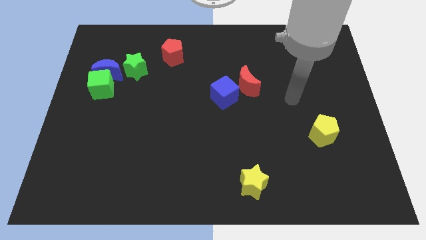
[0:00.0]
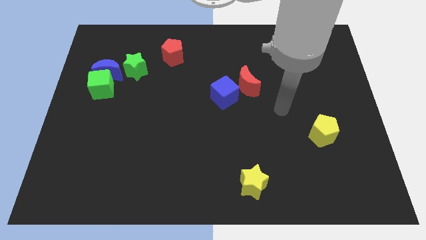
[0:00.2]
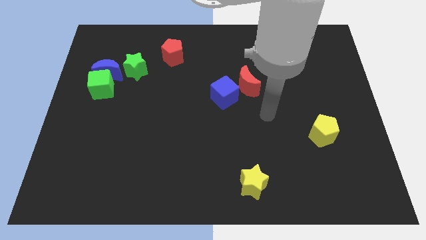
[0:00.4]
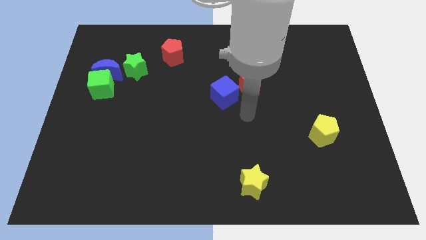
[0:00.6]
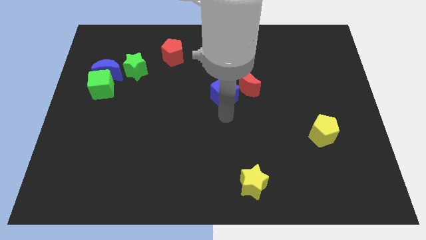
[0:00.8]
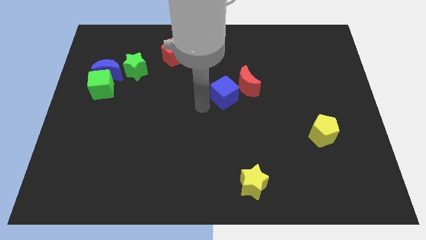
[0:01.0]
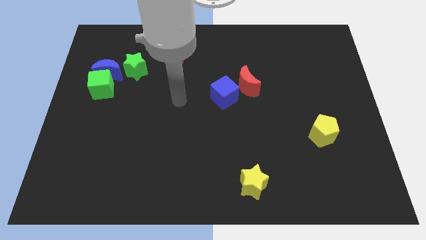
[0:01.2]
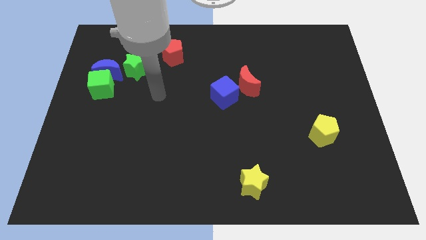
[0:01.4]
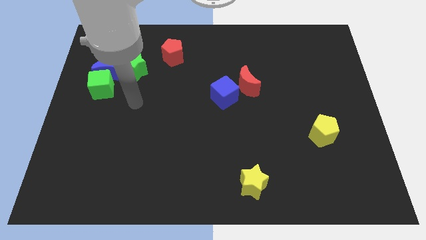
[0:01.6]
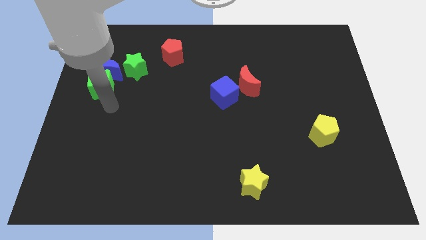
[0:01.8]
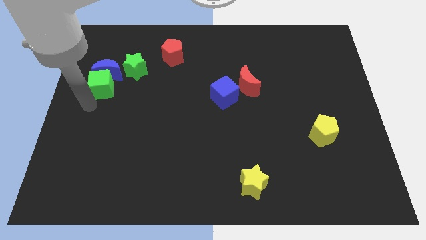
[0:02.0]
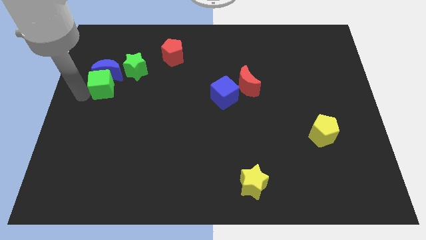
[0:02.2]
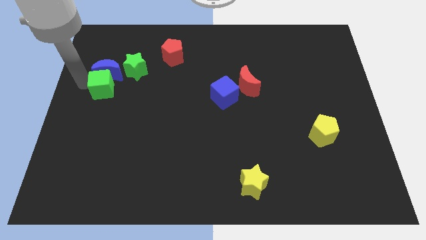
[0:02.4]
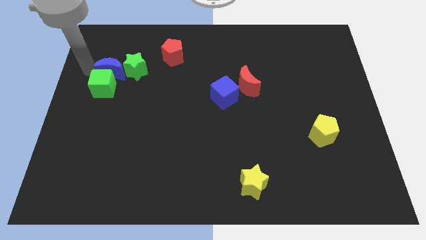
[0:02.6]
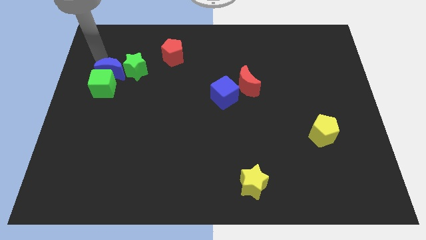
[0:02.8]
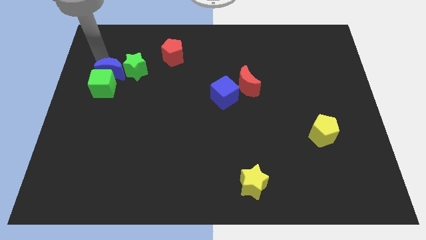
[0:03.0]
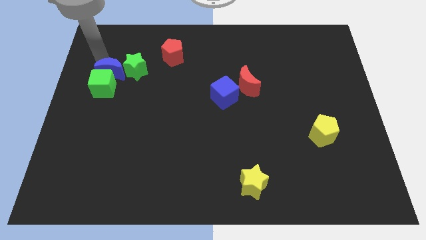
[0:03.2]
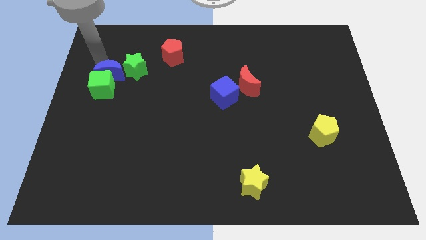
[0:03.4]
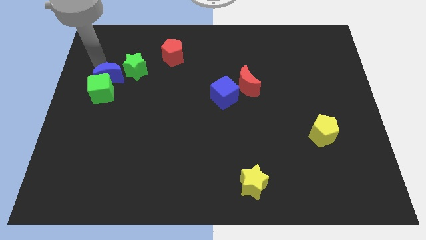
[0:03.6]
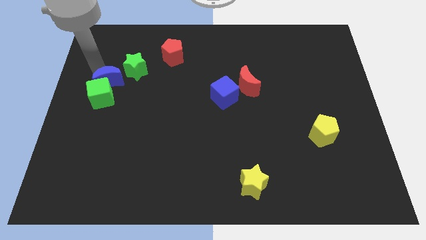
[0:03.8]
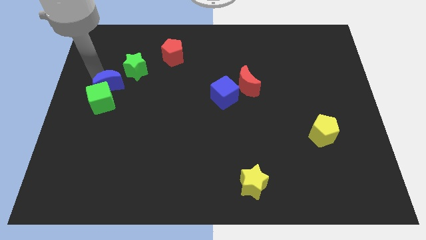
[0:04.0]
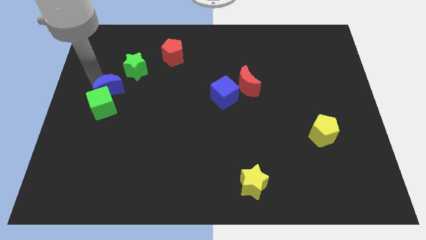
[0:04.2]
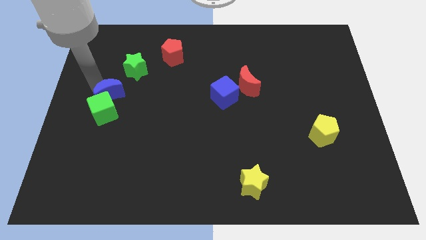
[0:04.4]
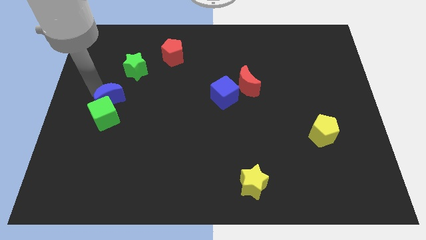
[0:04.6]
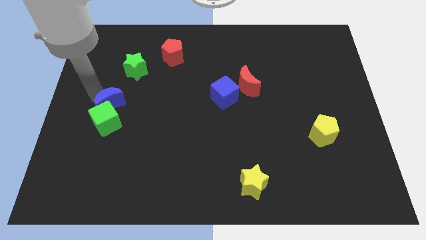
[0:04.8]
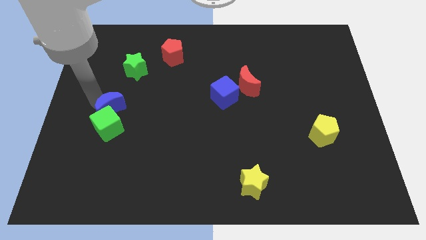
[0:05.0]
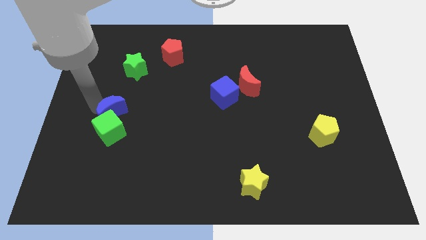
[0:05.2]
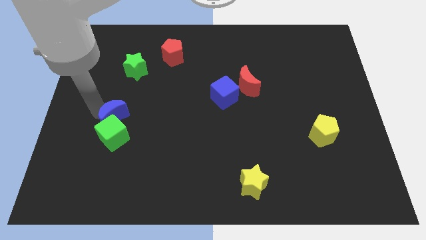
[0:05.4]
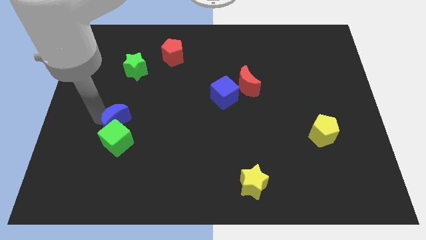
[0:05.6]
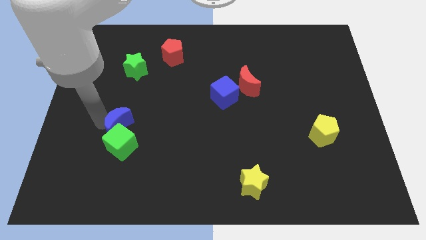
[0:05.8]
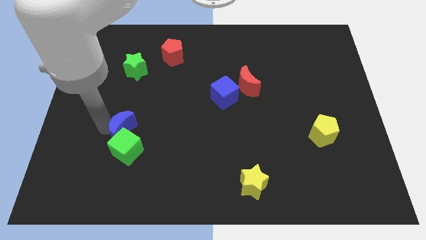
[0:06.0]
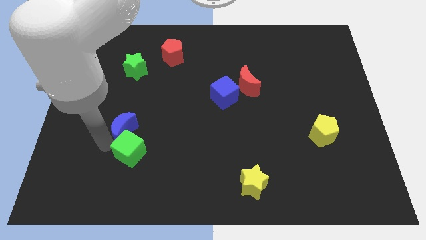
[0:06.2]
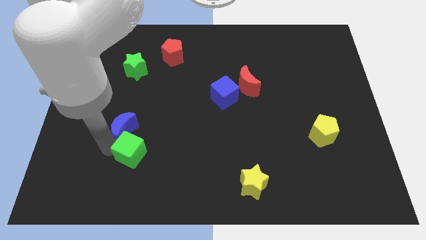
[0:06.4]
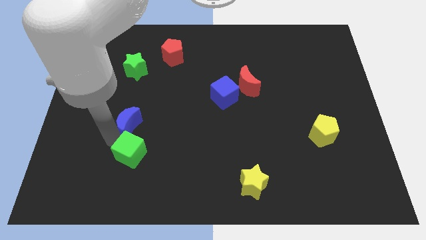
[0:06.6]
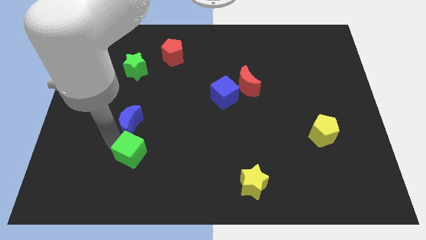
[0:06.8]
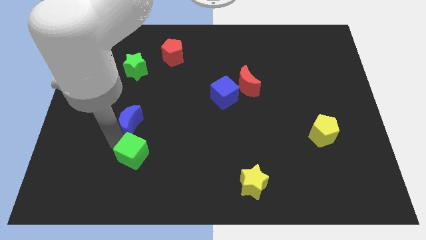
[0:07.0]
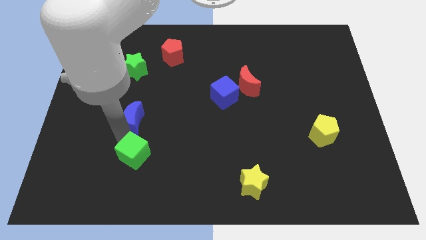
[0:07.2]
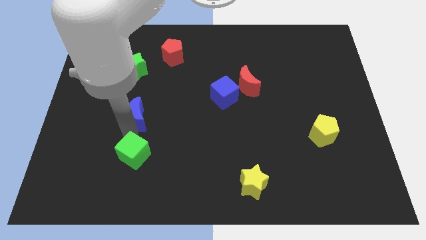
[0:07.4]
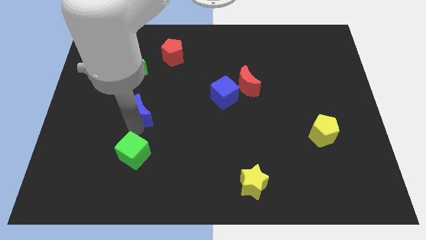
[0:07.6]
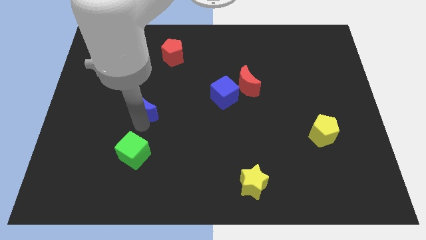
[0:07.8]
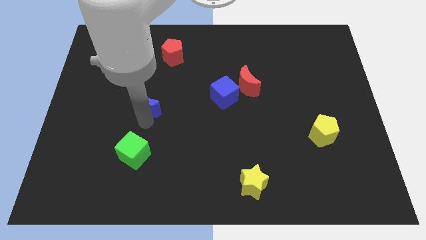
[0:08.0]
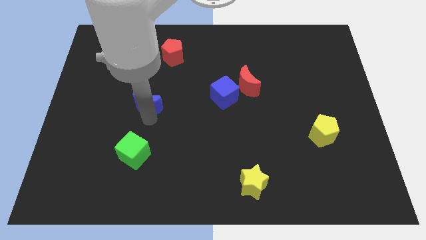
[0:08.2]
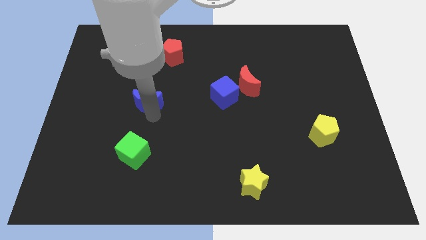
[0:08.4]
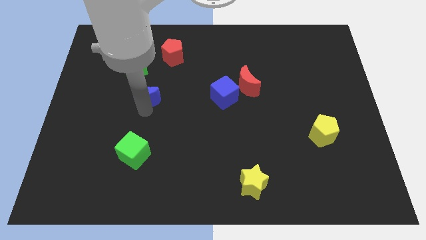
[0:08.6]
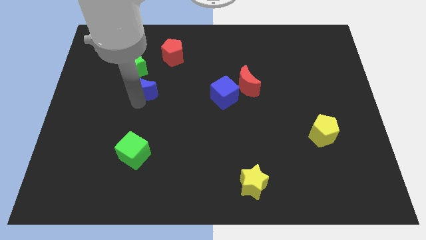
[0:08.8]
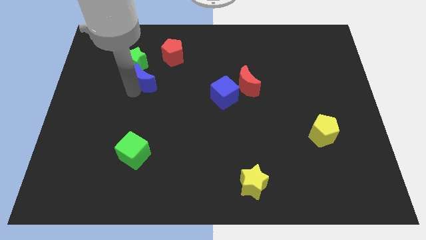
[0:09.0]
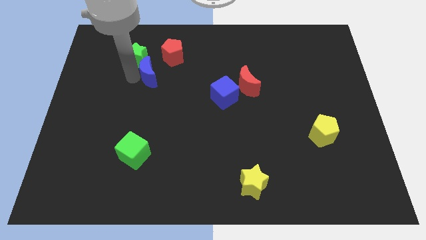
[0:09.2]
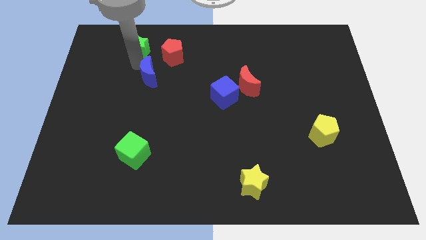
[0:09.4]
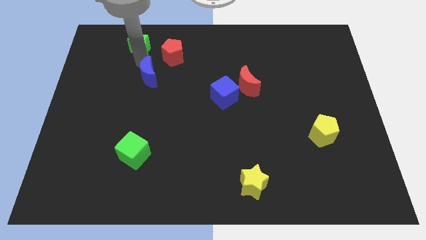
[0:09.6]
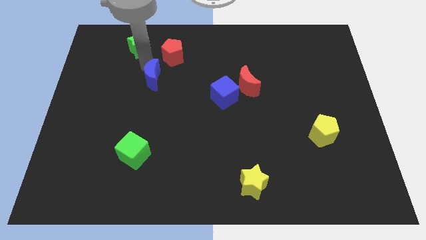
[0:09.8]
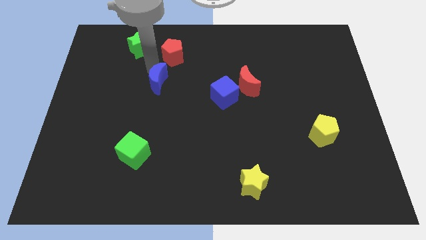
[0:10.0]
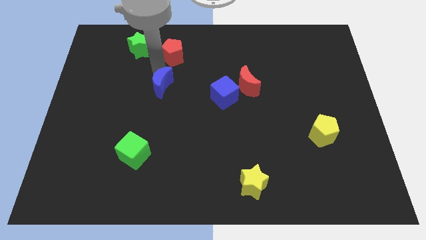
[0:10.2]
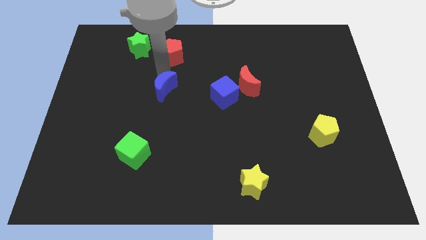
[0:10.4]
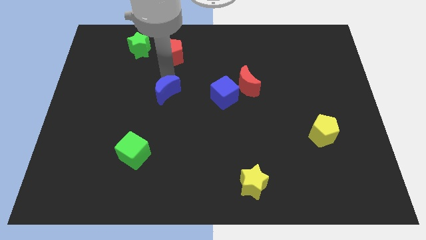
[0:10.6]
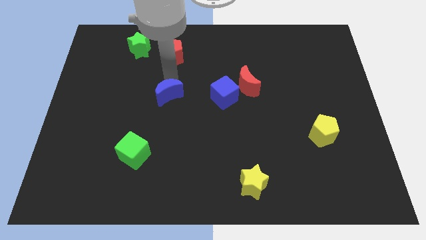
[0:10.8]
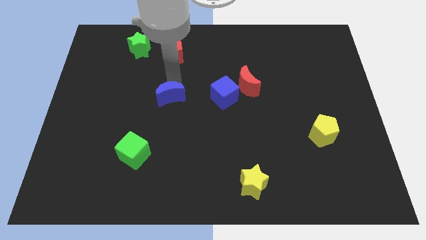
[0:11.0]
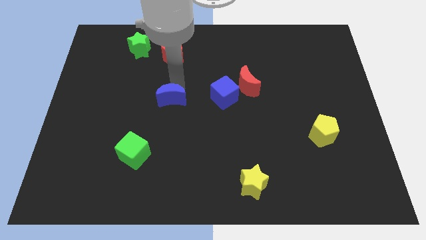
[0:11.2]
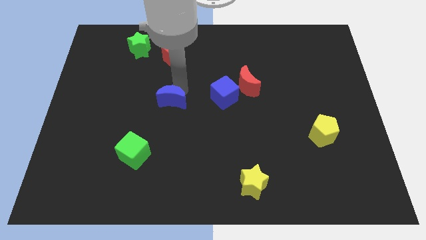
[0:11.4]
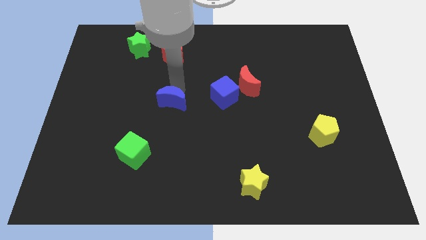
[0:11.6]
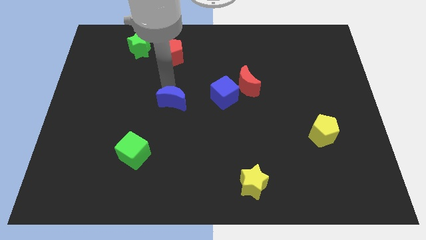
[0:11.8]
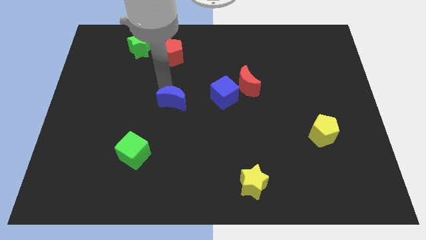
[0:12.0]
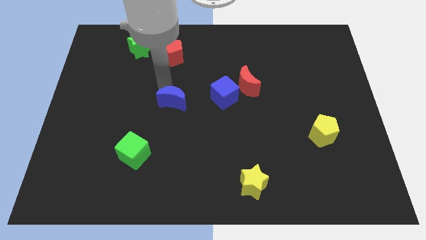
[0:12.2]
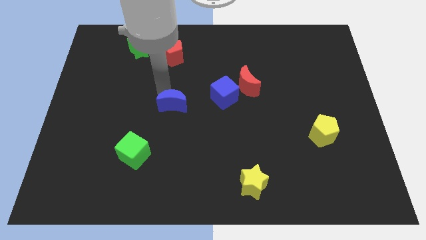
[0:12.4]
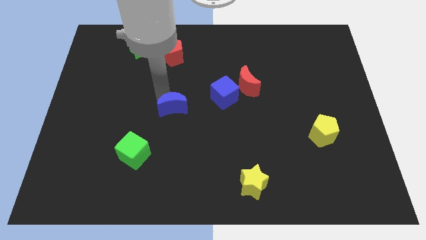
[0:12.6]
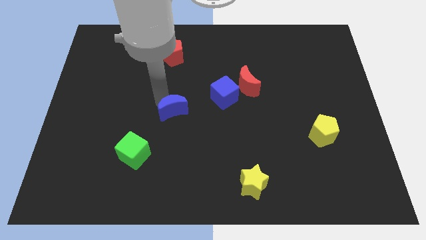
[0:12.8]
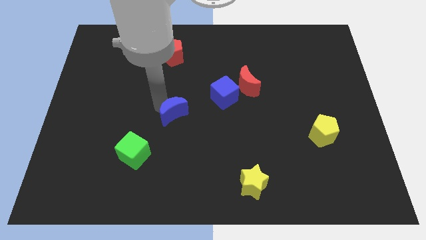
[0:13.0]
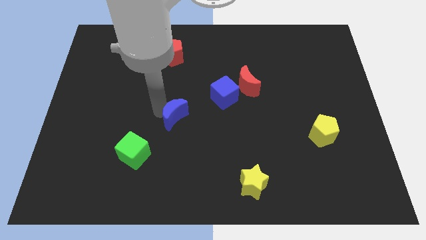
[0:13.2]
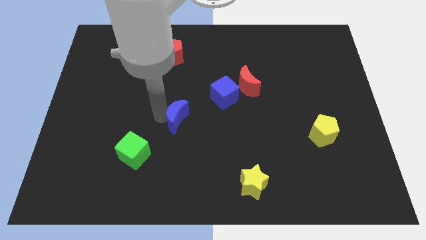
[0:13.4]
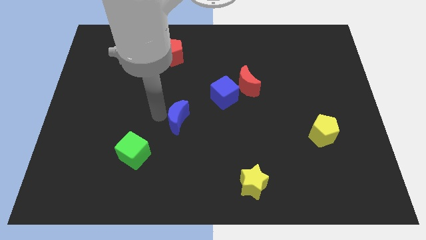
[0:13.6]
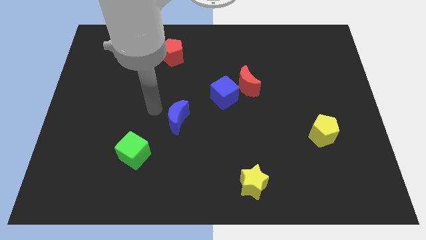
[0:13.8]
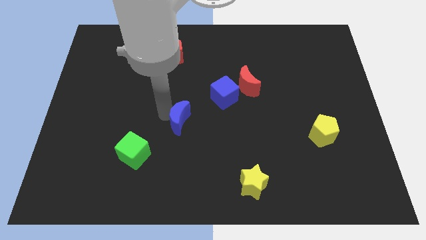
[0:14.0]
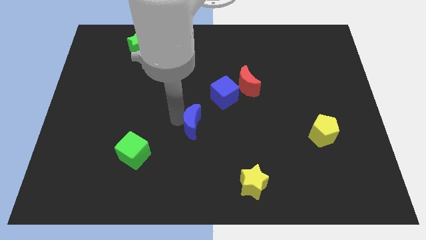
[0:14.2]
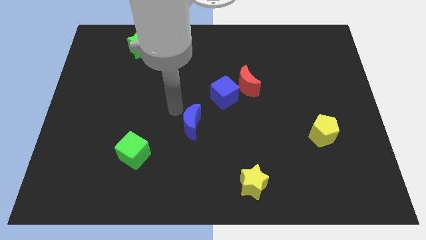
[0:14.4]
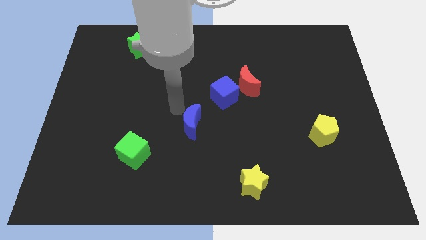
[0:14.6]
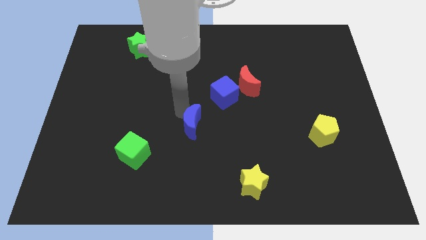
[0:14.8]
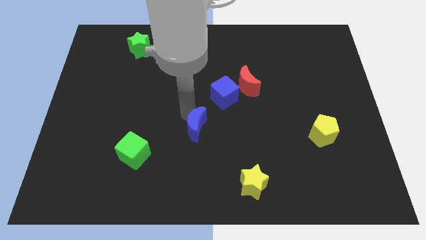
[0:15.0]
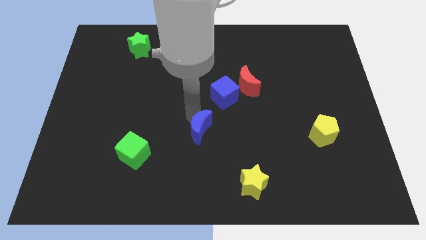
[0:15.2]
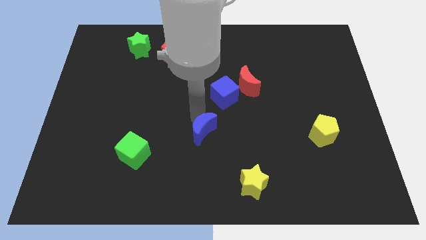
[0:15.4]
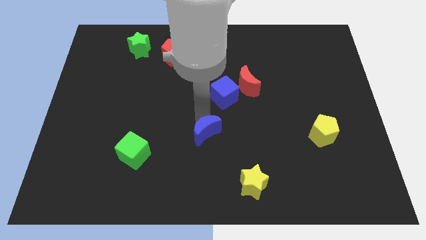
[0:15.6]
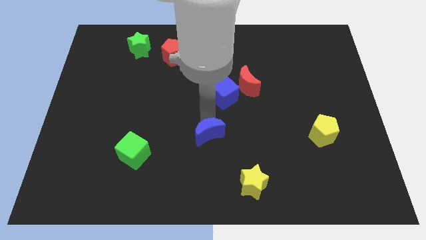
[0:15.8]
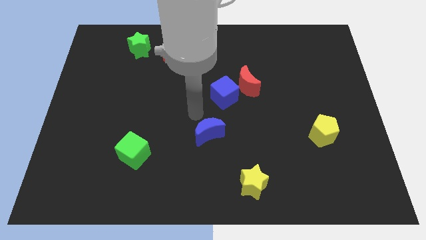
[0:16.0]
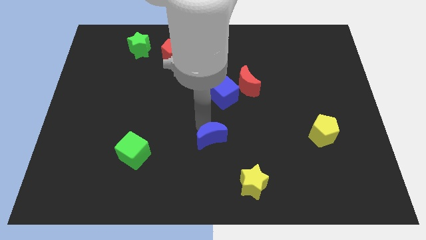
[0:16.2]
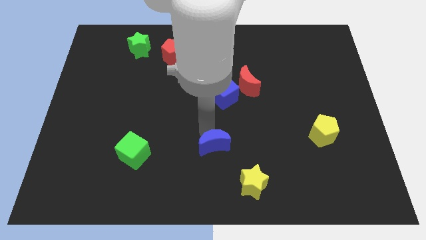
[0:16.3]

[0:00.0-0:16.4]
slide the blue moon to the top left of the yellow star
